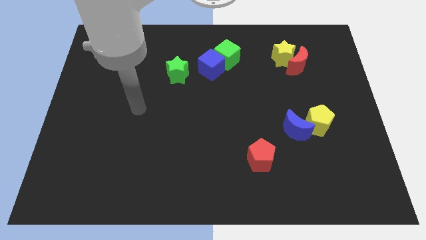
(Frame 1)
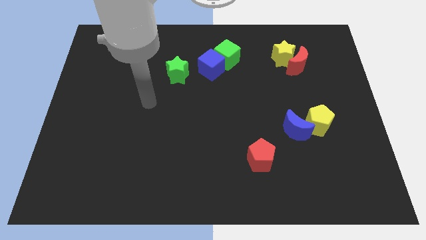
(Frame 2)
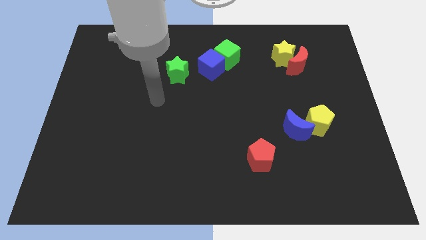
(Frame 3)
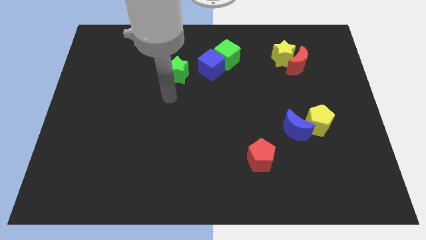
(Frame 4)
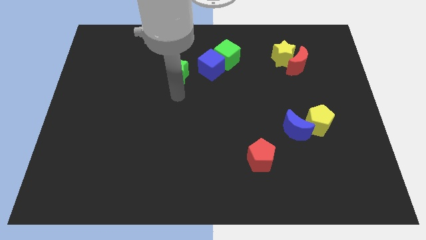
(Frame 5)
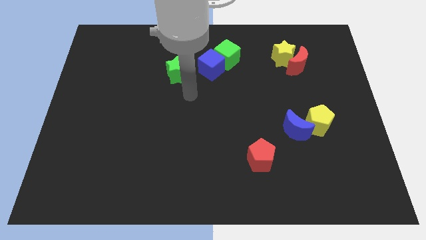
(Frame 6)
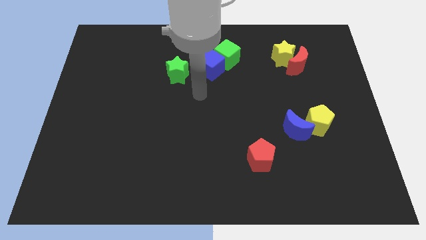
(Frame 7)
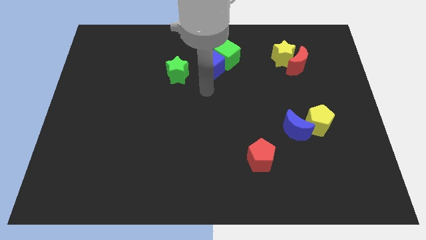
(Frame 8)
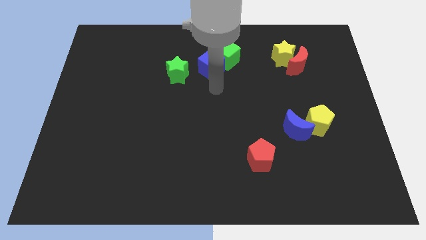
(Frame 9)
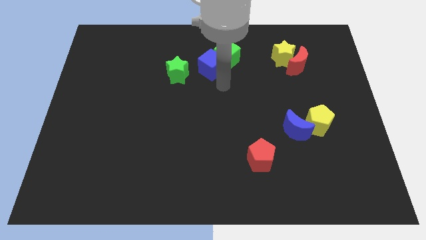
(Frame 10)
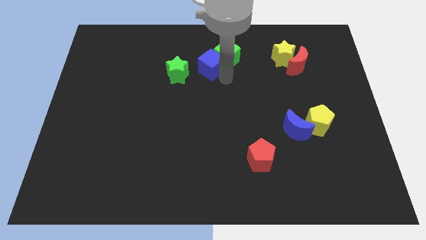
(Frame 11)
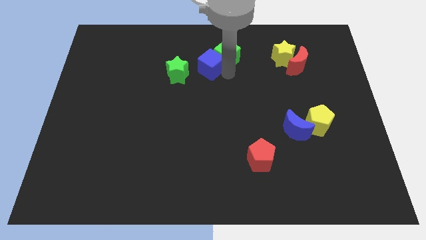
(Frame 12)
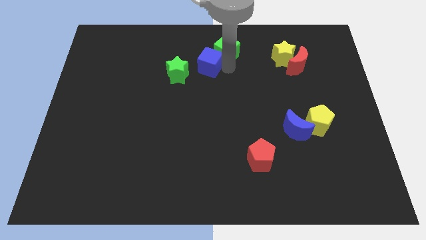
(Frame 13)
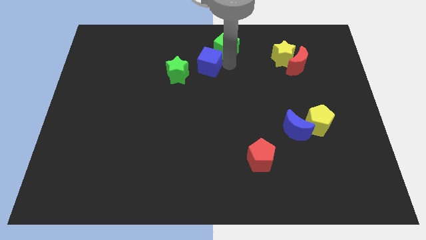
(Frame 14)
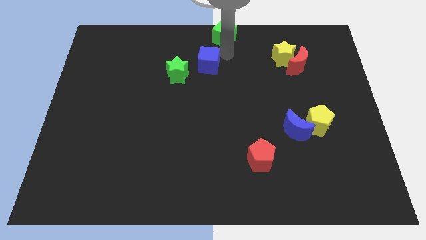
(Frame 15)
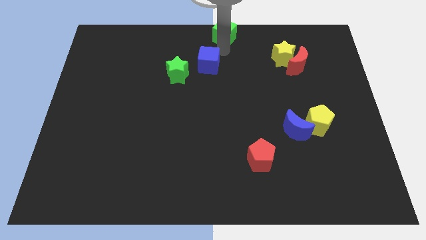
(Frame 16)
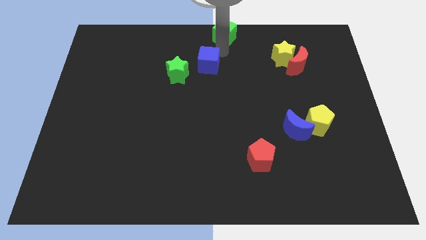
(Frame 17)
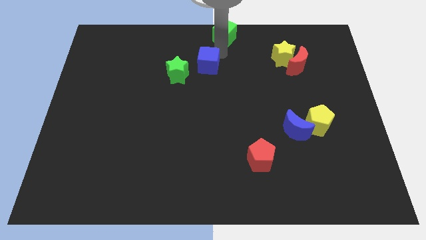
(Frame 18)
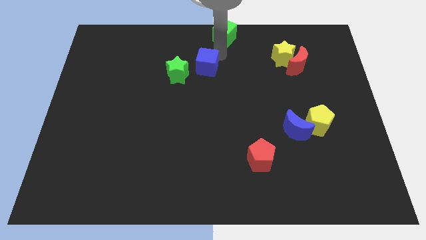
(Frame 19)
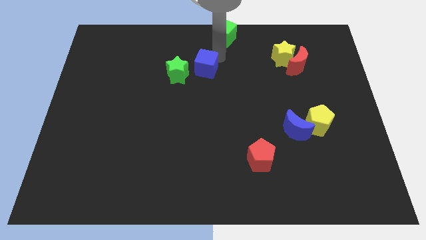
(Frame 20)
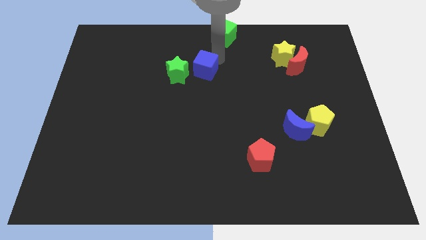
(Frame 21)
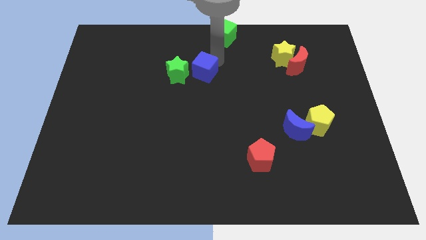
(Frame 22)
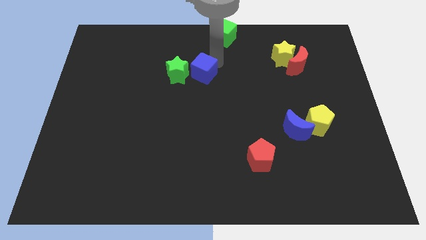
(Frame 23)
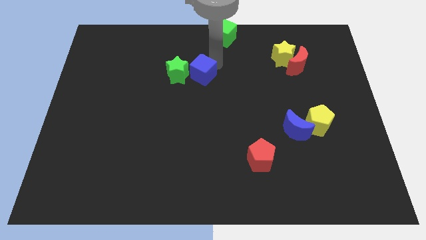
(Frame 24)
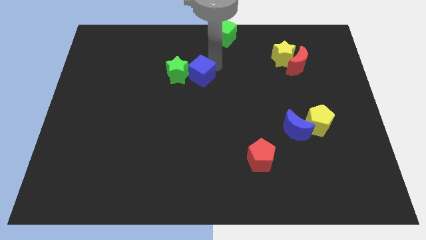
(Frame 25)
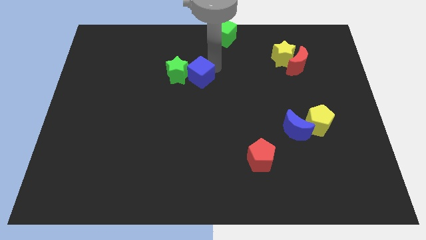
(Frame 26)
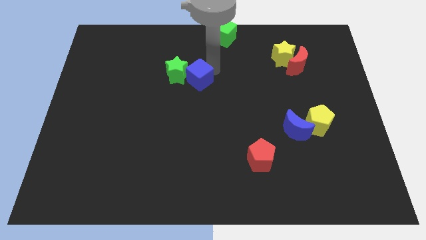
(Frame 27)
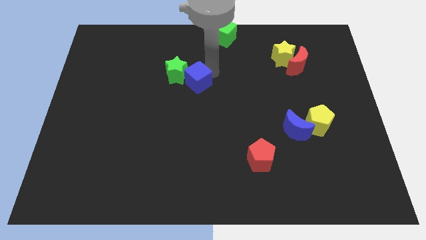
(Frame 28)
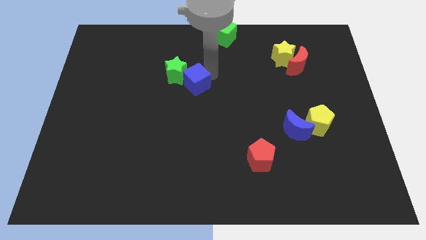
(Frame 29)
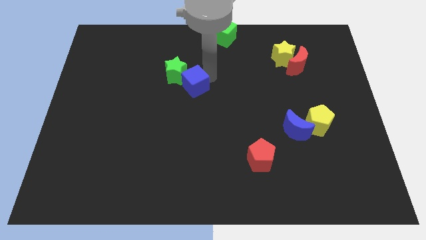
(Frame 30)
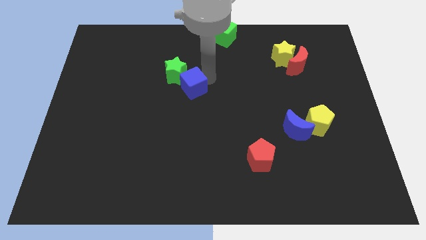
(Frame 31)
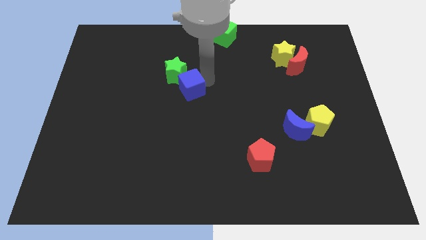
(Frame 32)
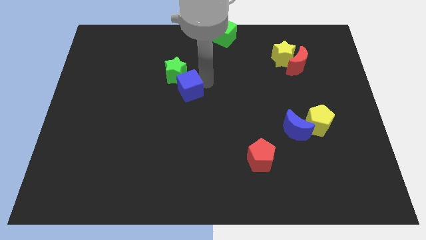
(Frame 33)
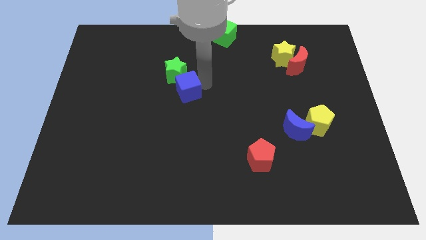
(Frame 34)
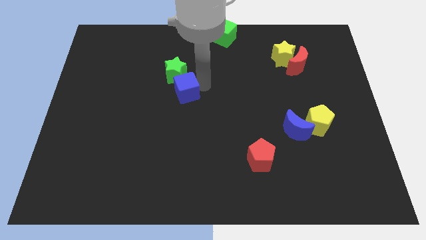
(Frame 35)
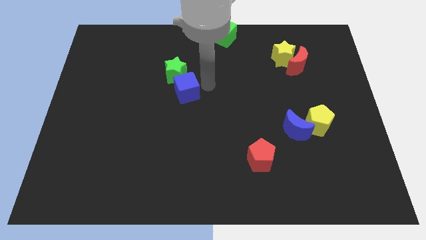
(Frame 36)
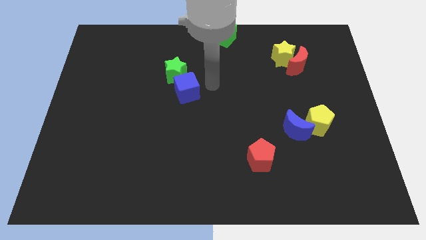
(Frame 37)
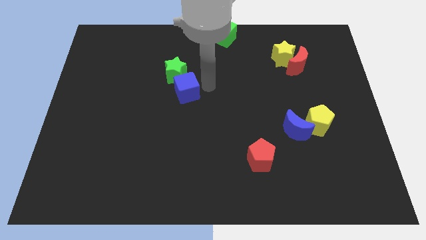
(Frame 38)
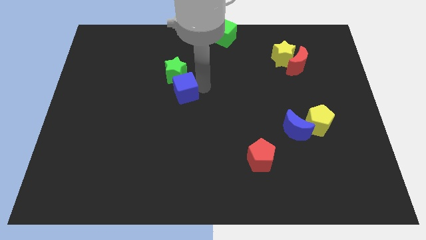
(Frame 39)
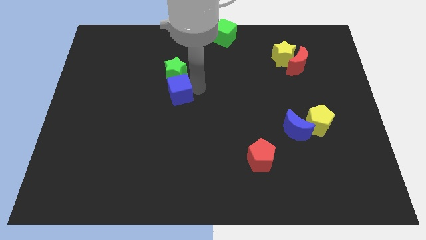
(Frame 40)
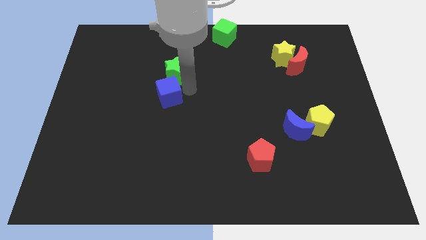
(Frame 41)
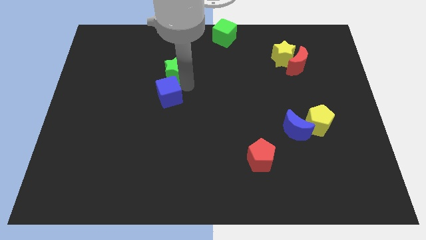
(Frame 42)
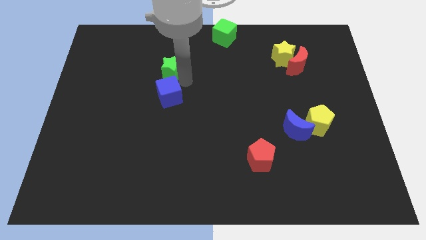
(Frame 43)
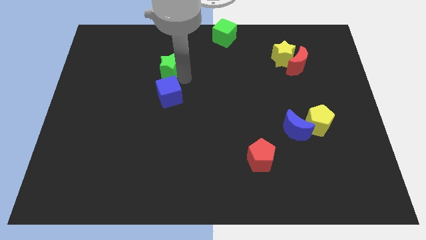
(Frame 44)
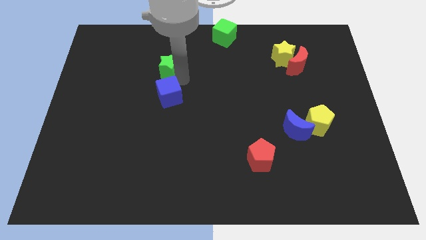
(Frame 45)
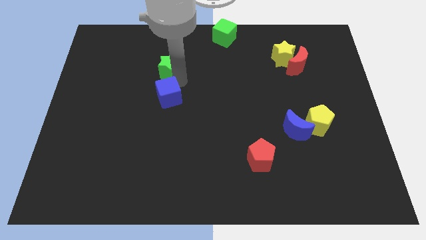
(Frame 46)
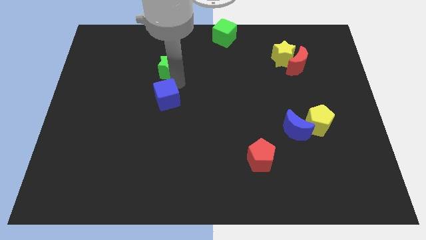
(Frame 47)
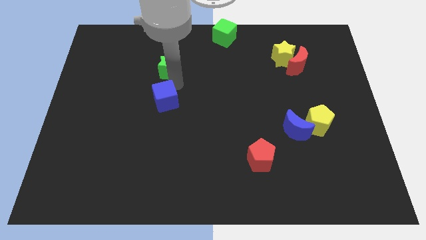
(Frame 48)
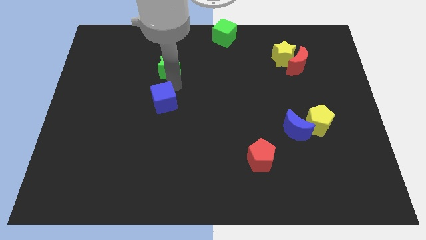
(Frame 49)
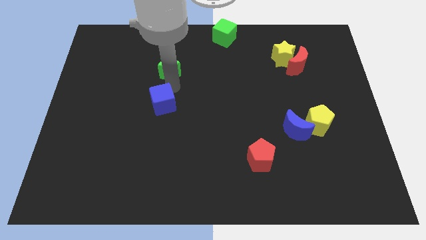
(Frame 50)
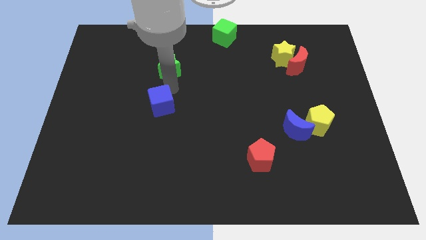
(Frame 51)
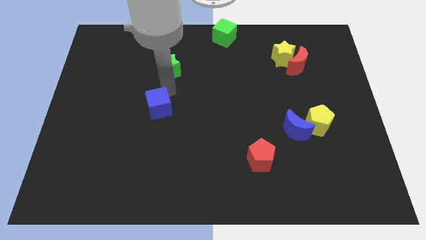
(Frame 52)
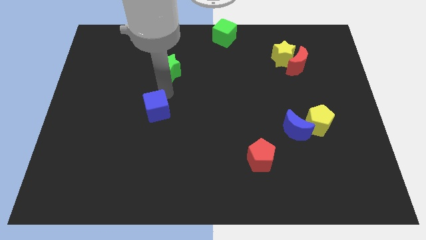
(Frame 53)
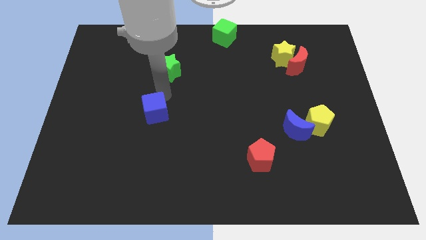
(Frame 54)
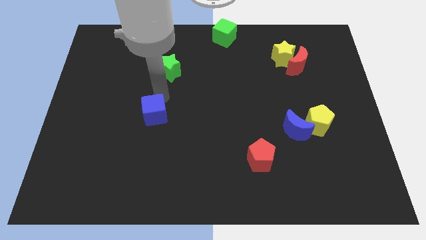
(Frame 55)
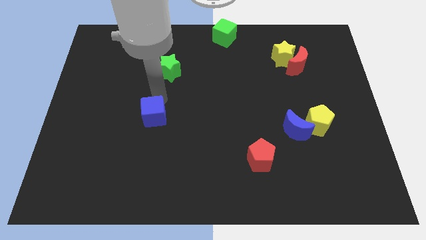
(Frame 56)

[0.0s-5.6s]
move the blue cube diagonally down and left

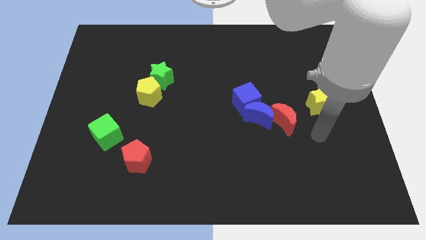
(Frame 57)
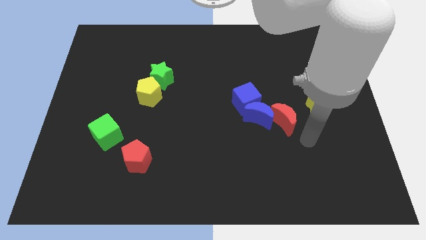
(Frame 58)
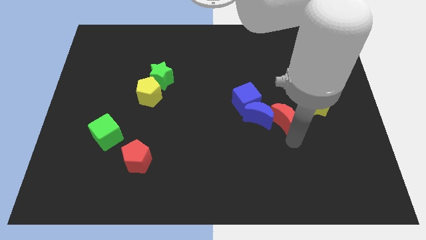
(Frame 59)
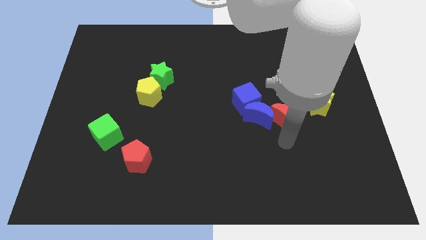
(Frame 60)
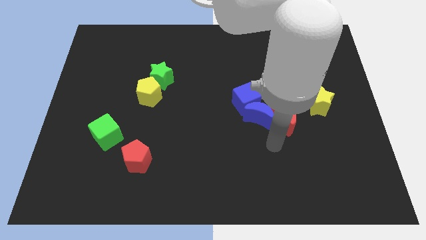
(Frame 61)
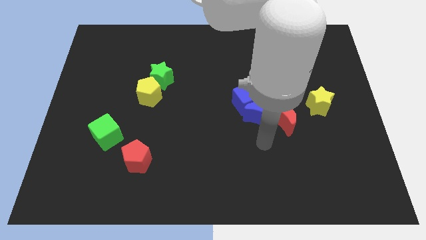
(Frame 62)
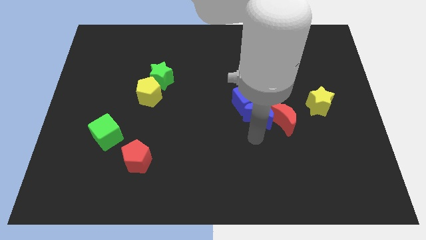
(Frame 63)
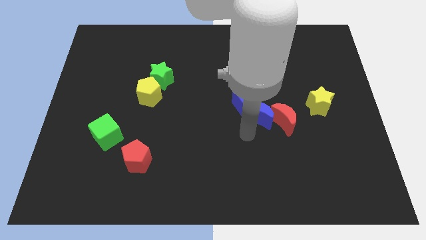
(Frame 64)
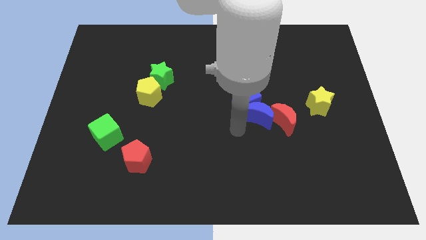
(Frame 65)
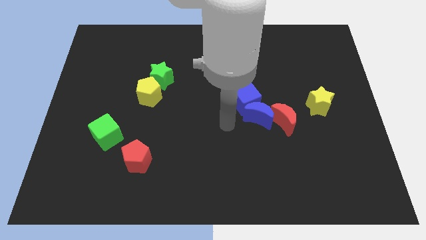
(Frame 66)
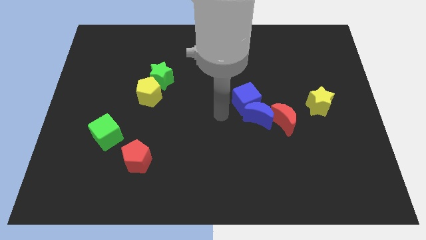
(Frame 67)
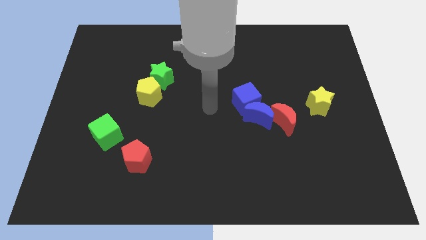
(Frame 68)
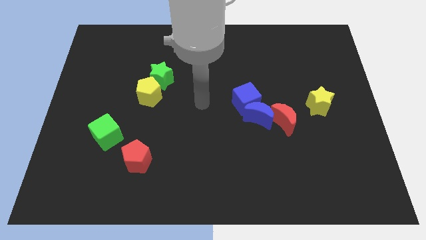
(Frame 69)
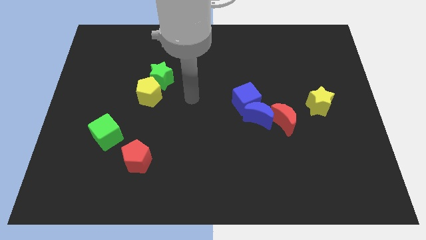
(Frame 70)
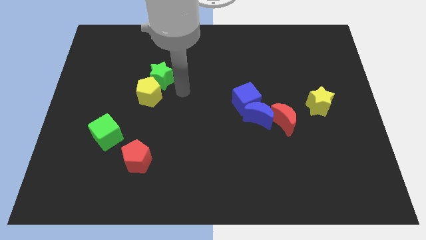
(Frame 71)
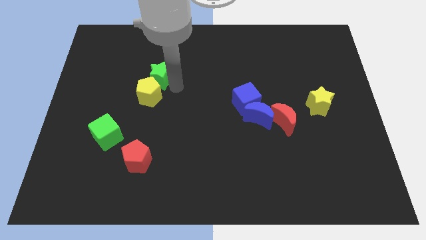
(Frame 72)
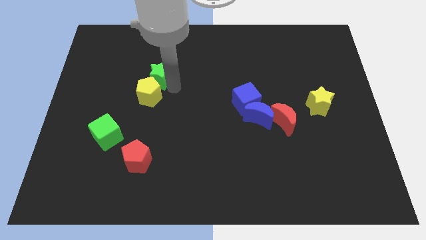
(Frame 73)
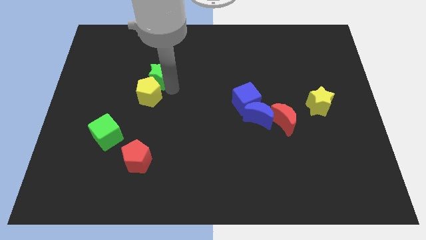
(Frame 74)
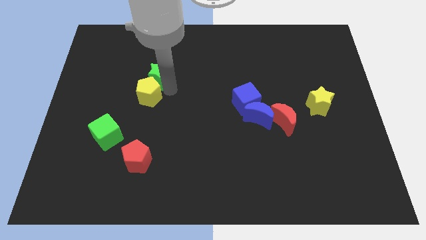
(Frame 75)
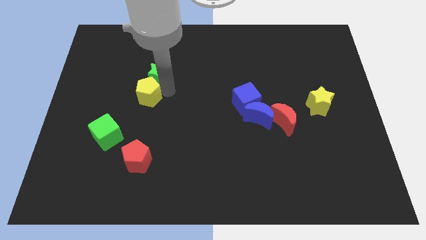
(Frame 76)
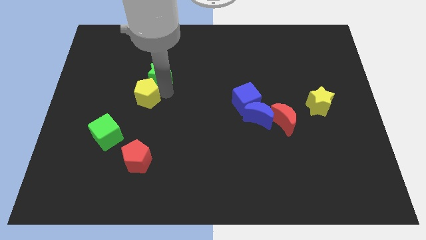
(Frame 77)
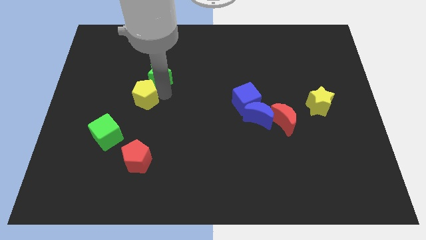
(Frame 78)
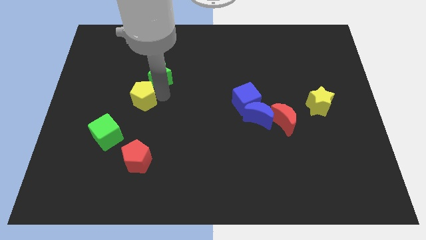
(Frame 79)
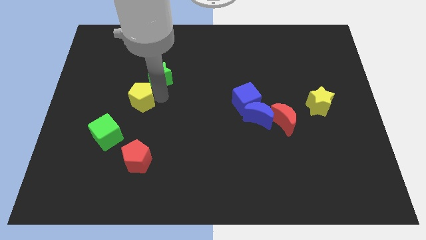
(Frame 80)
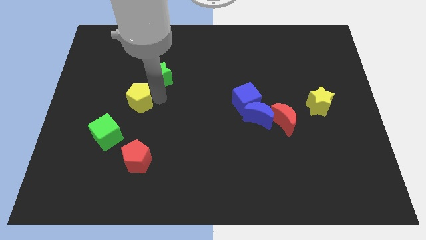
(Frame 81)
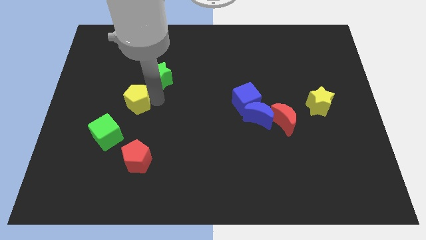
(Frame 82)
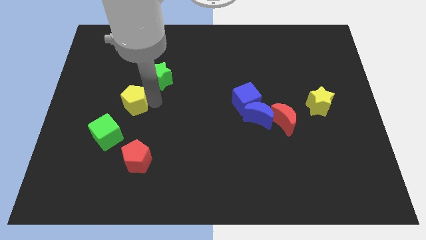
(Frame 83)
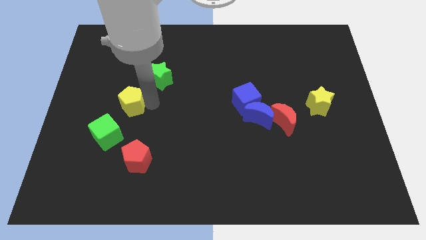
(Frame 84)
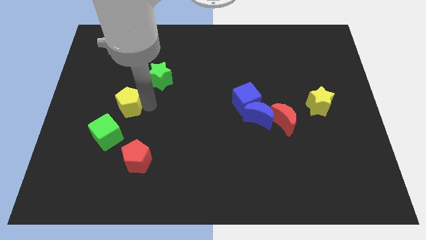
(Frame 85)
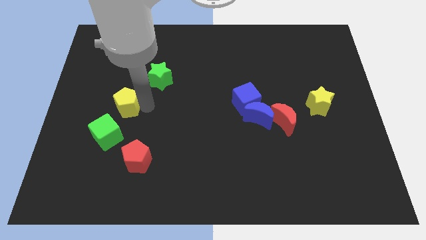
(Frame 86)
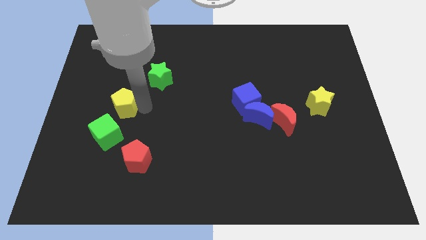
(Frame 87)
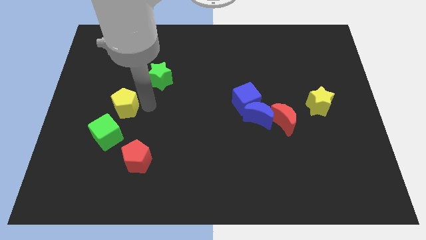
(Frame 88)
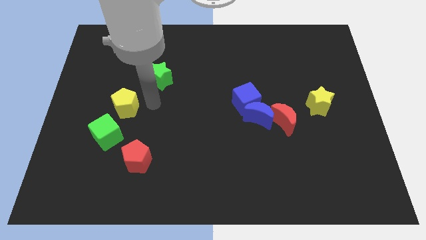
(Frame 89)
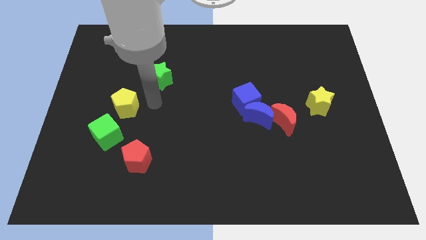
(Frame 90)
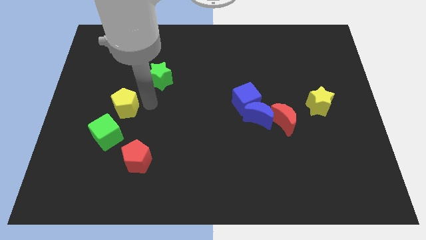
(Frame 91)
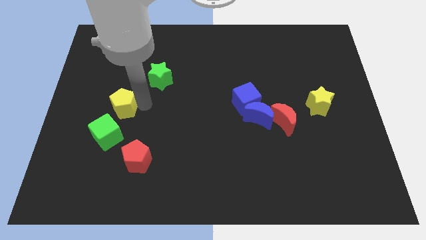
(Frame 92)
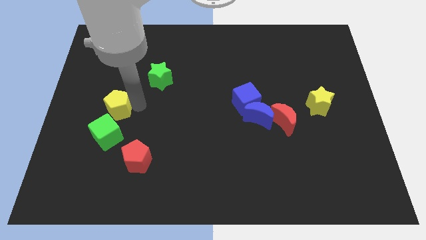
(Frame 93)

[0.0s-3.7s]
push the yellow pentagon down and to the left slightly
